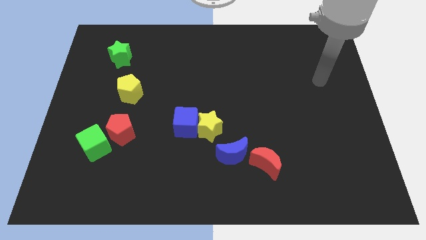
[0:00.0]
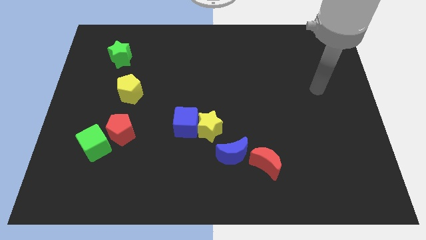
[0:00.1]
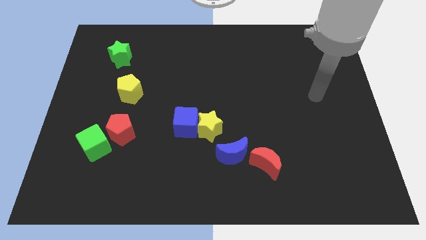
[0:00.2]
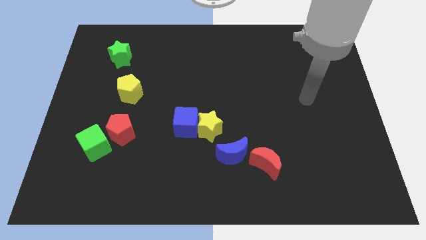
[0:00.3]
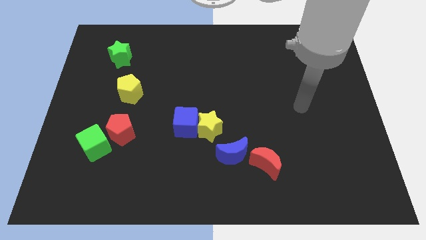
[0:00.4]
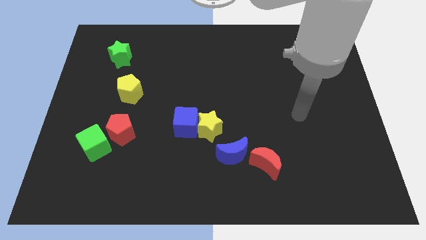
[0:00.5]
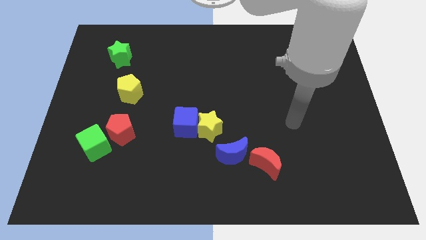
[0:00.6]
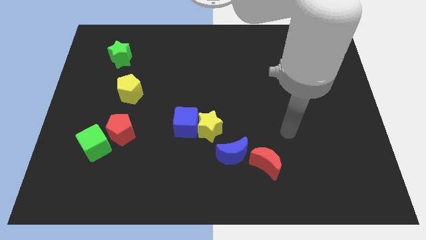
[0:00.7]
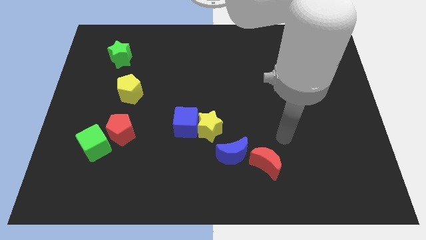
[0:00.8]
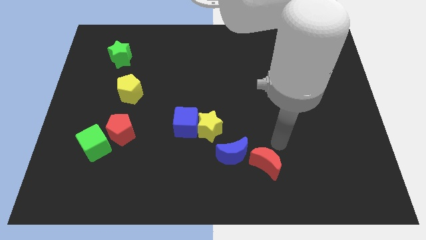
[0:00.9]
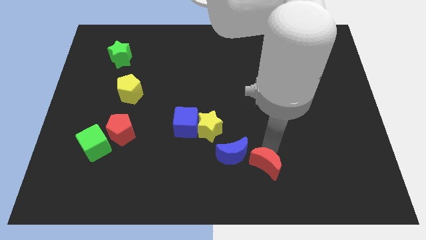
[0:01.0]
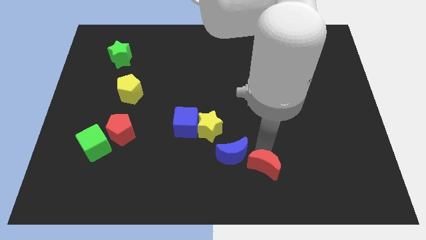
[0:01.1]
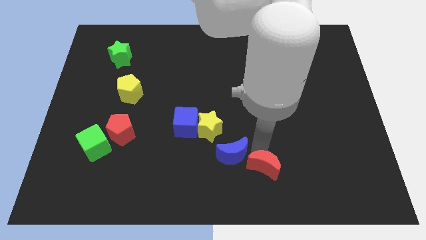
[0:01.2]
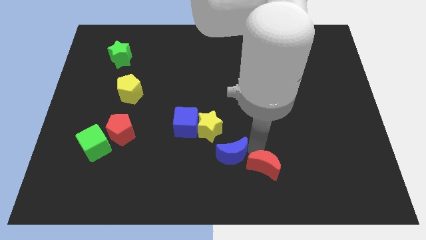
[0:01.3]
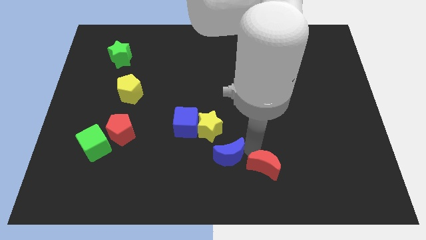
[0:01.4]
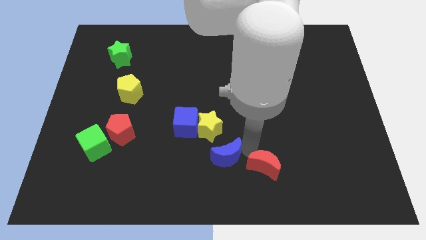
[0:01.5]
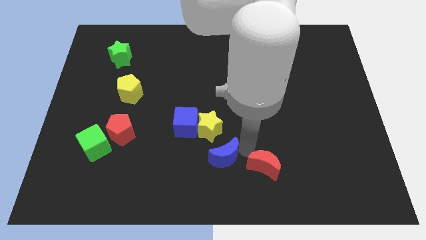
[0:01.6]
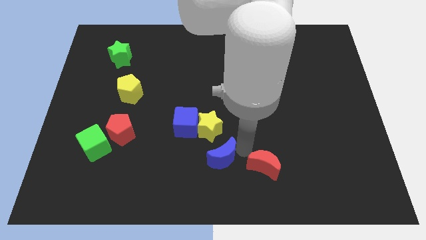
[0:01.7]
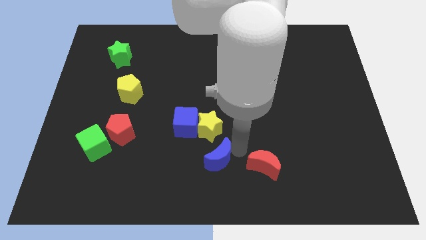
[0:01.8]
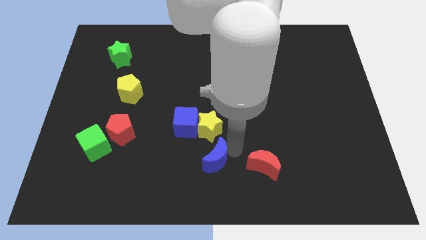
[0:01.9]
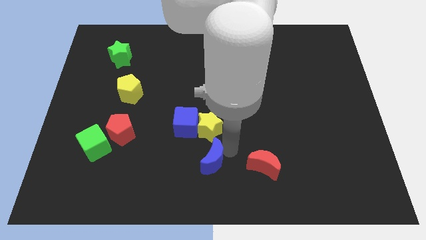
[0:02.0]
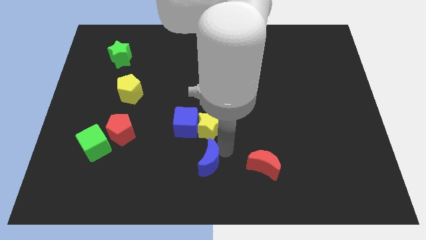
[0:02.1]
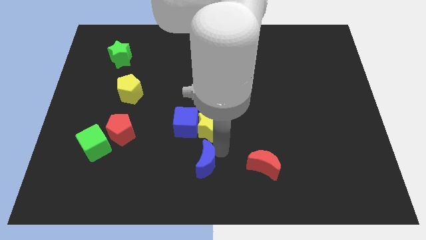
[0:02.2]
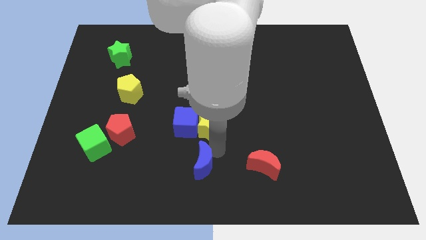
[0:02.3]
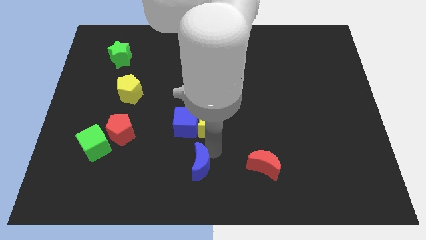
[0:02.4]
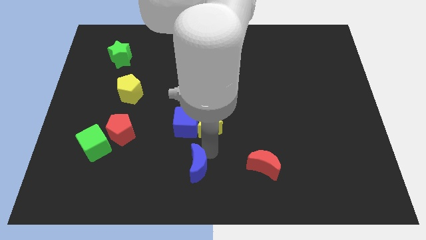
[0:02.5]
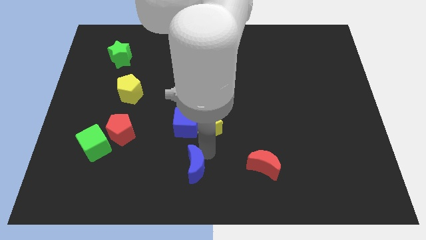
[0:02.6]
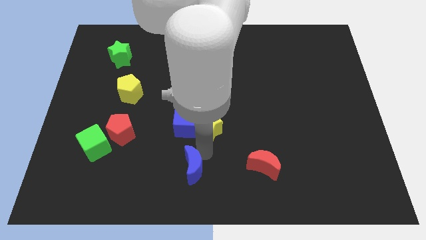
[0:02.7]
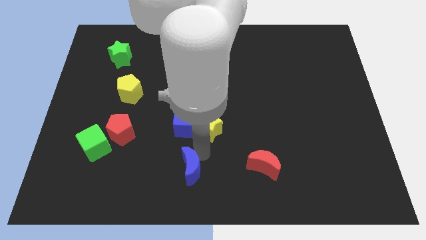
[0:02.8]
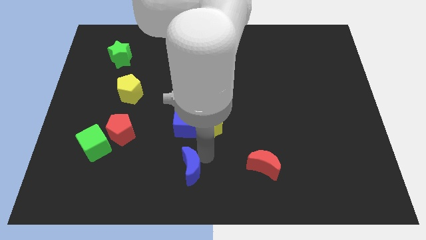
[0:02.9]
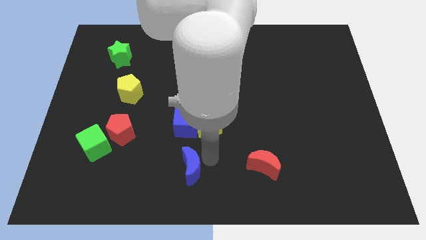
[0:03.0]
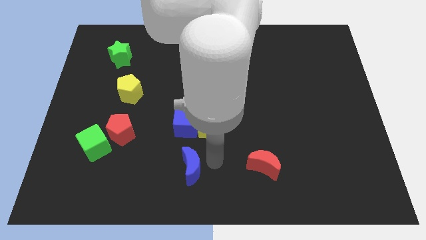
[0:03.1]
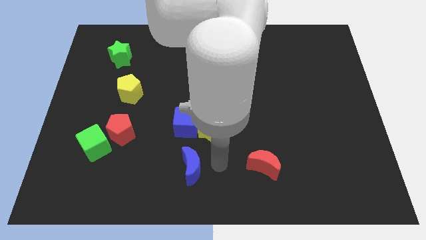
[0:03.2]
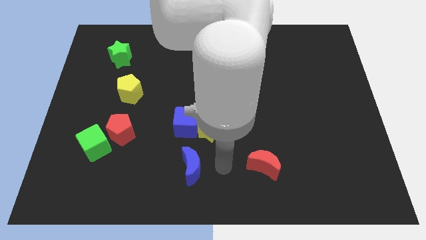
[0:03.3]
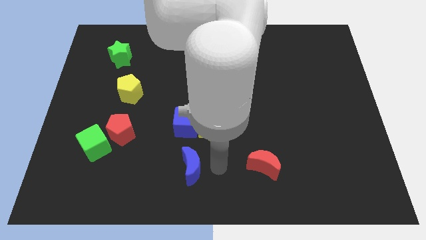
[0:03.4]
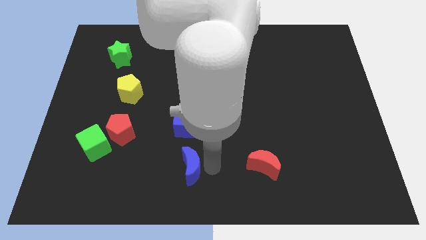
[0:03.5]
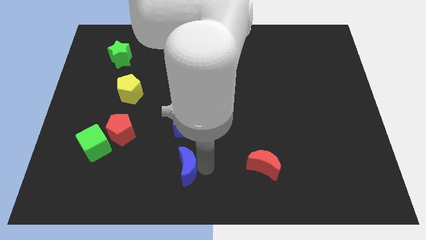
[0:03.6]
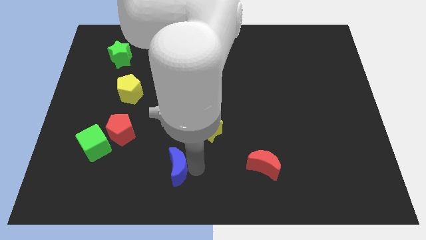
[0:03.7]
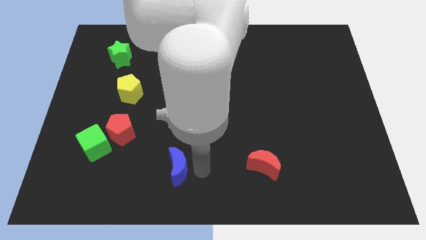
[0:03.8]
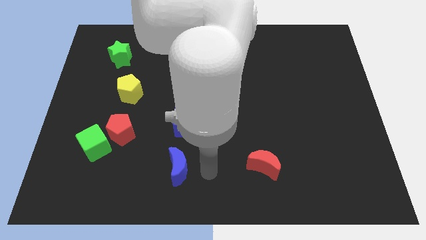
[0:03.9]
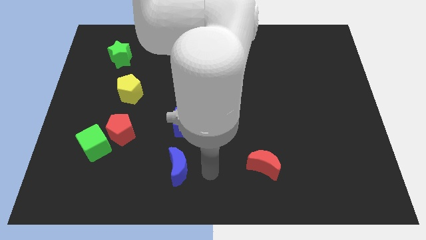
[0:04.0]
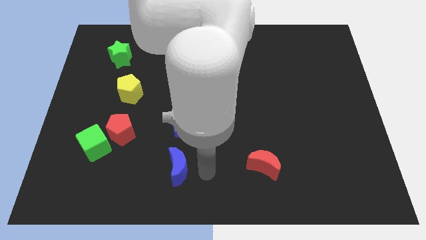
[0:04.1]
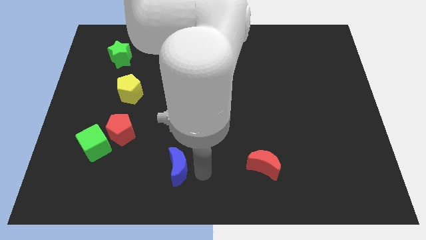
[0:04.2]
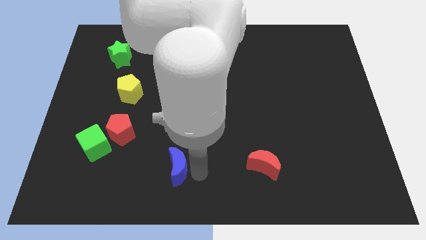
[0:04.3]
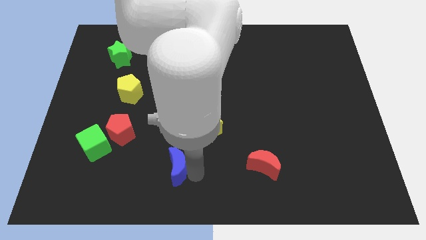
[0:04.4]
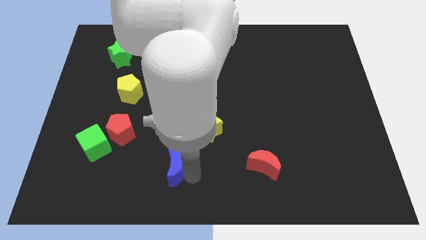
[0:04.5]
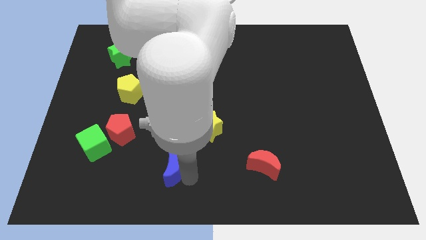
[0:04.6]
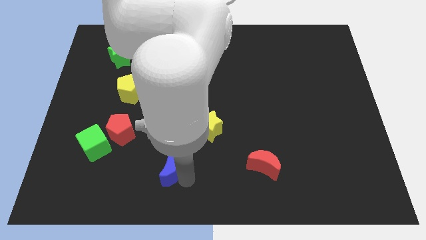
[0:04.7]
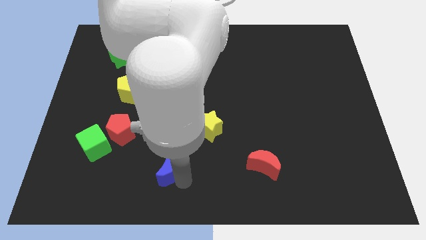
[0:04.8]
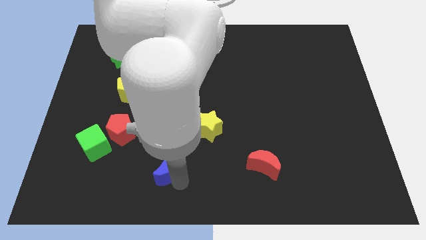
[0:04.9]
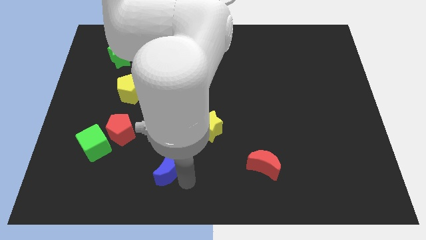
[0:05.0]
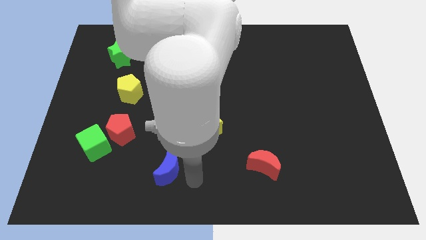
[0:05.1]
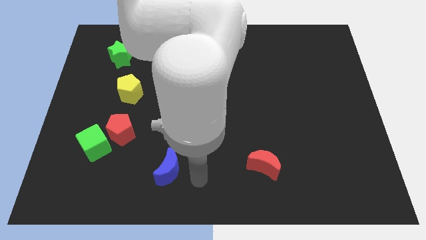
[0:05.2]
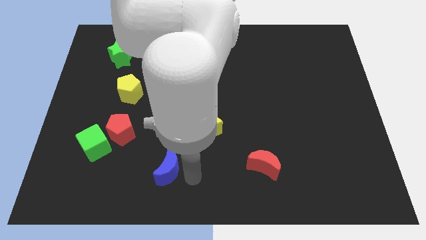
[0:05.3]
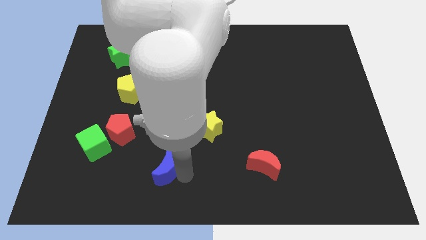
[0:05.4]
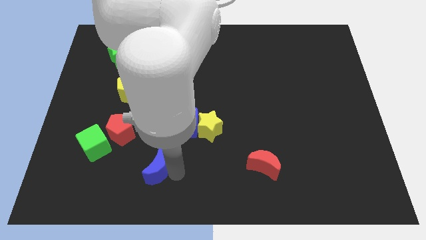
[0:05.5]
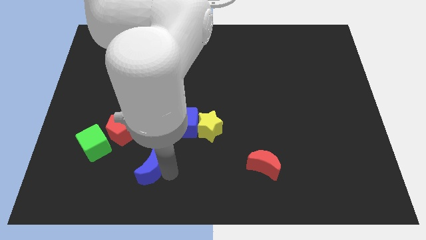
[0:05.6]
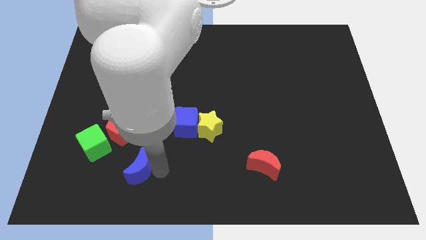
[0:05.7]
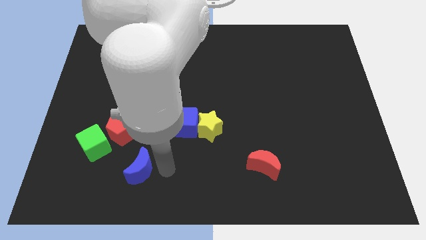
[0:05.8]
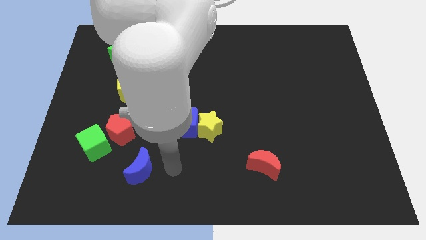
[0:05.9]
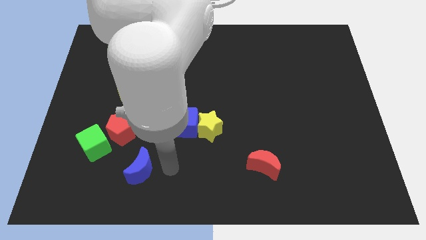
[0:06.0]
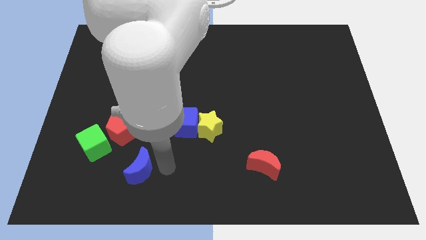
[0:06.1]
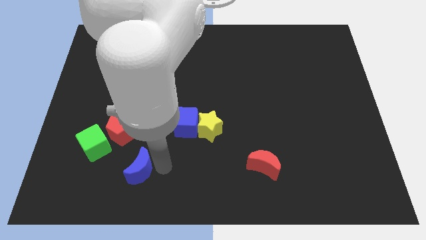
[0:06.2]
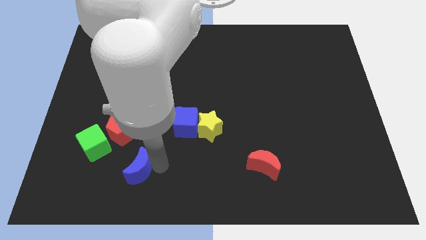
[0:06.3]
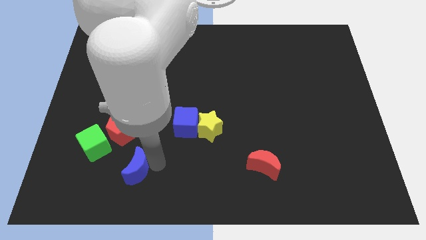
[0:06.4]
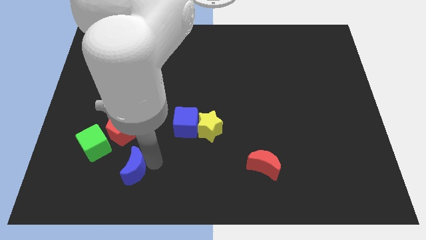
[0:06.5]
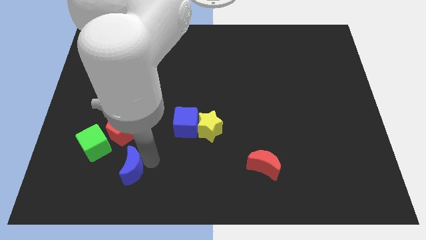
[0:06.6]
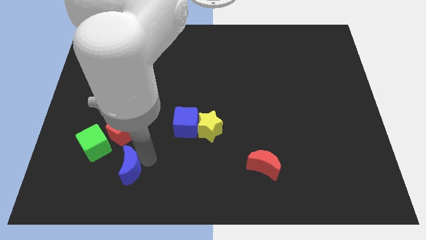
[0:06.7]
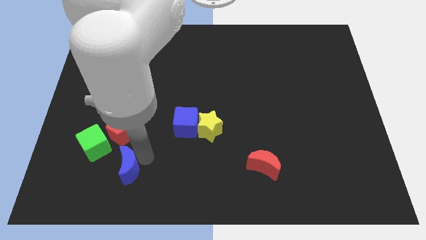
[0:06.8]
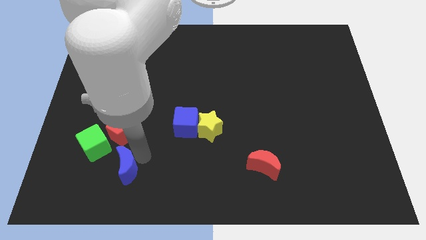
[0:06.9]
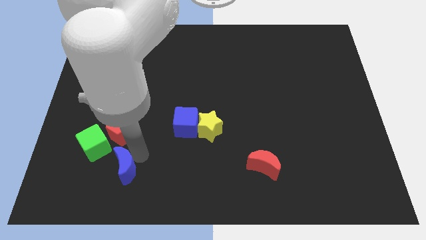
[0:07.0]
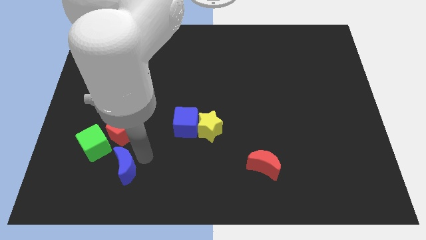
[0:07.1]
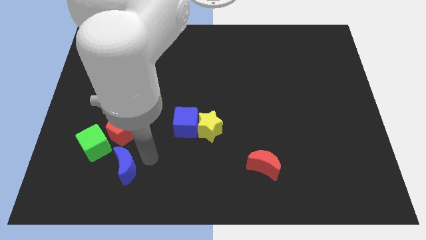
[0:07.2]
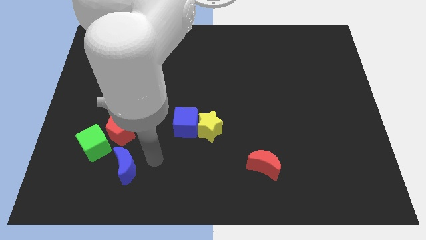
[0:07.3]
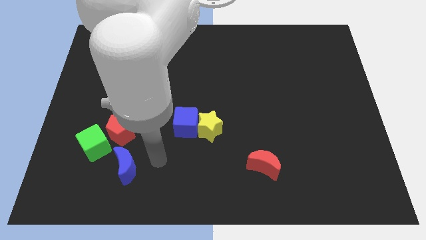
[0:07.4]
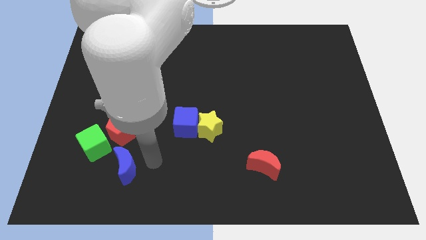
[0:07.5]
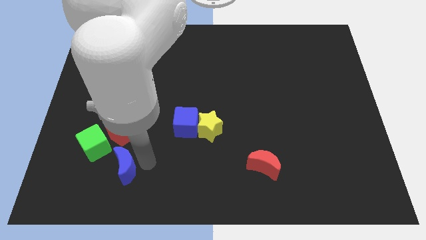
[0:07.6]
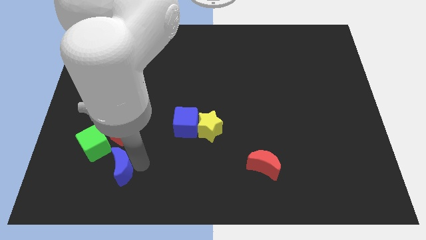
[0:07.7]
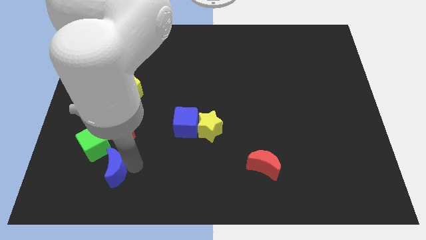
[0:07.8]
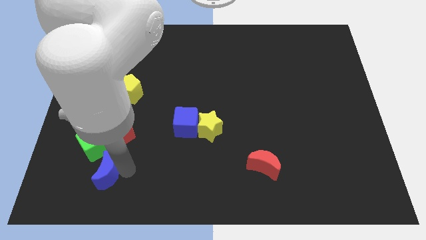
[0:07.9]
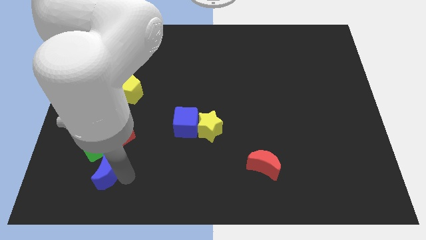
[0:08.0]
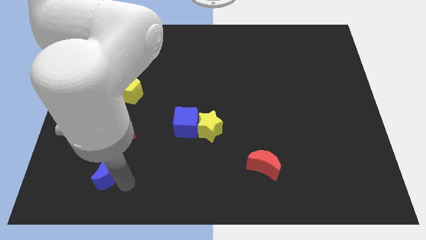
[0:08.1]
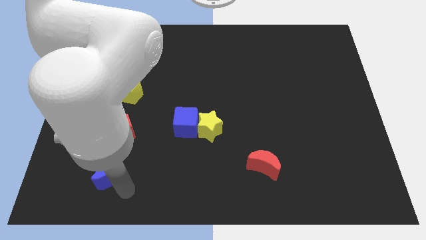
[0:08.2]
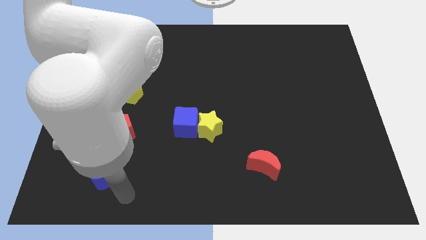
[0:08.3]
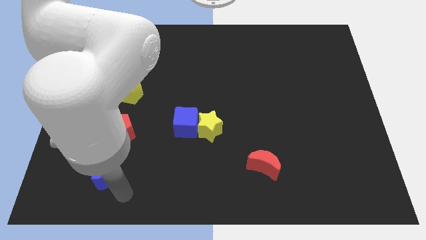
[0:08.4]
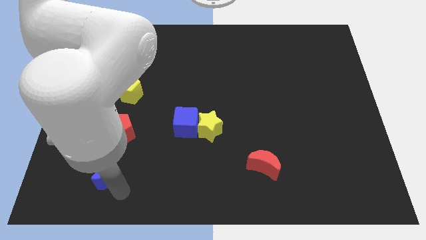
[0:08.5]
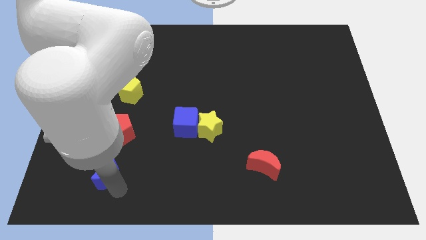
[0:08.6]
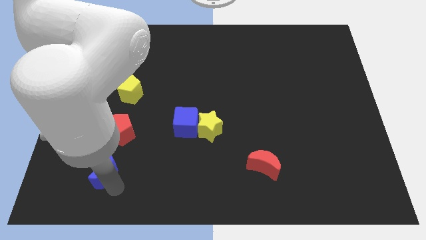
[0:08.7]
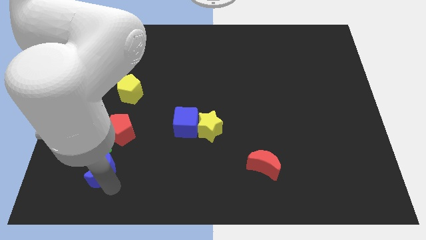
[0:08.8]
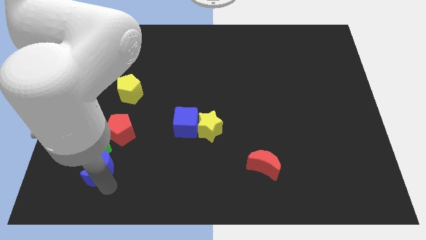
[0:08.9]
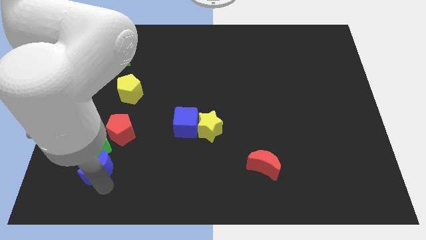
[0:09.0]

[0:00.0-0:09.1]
put the blue moon to the bottom left side of the red pentagon
